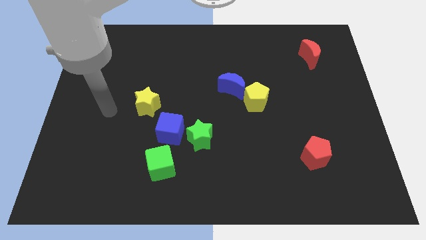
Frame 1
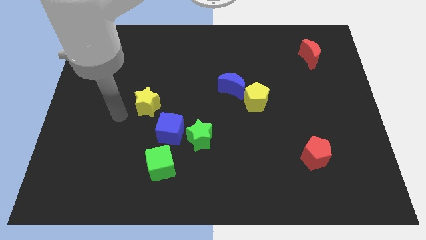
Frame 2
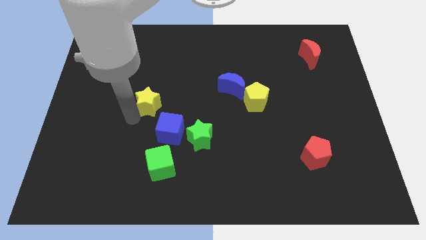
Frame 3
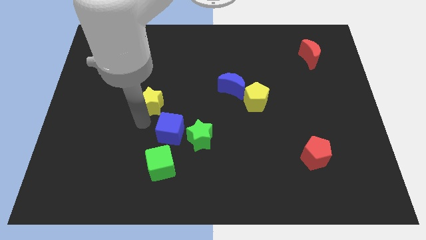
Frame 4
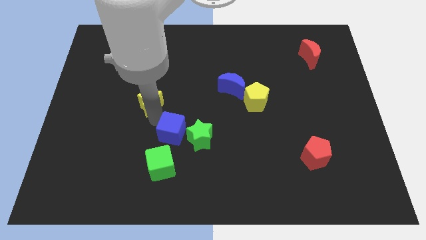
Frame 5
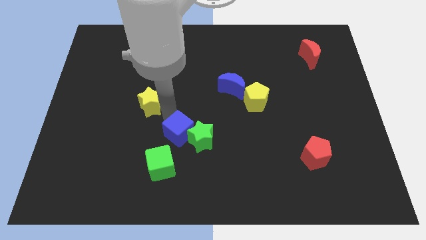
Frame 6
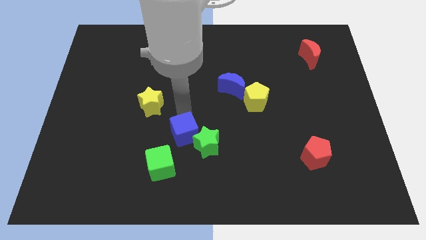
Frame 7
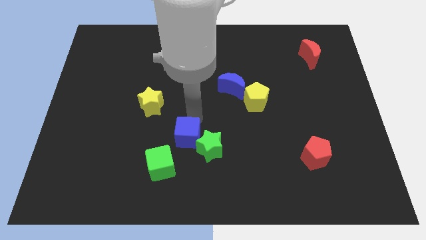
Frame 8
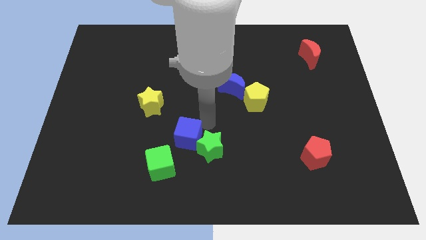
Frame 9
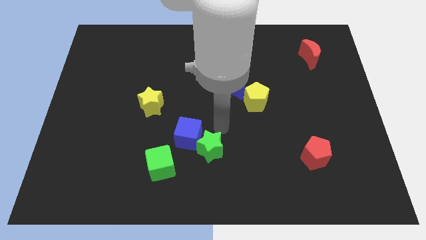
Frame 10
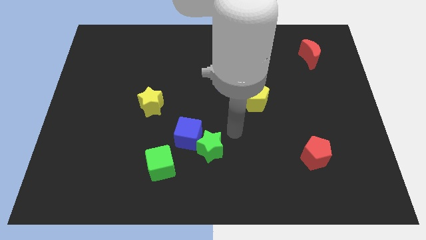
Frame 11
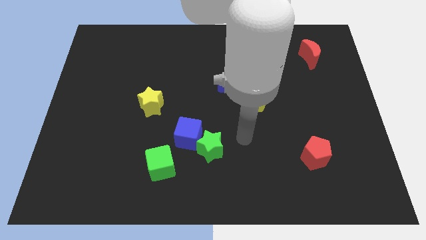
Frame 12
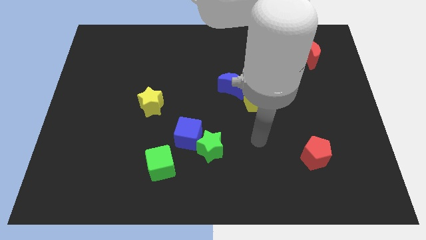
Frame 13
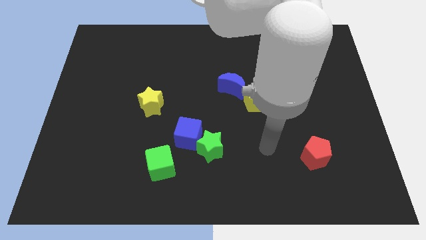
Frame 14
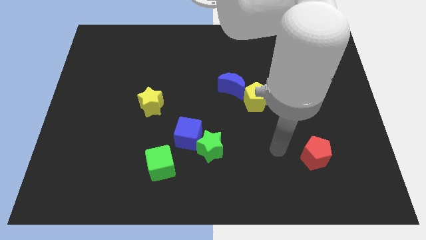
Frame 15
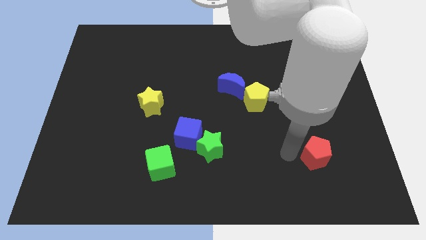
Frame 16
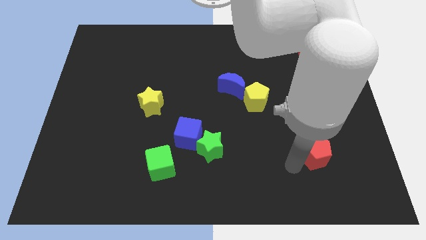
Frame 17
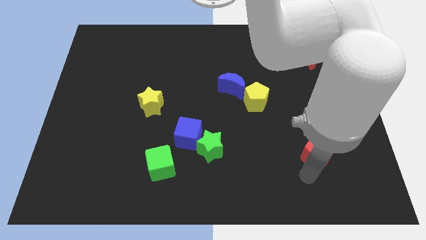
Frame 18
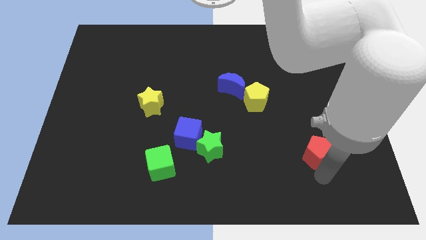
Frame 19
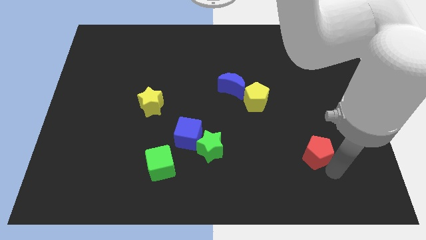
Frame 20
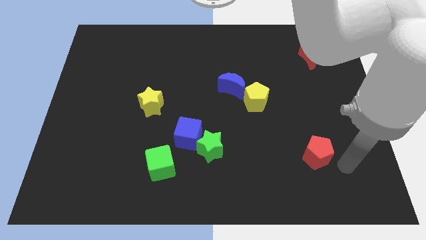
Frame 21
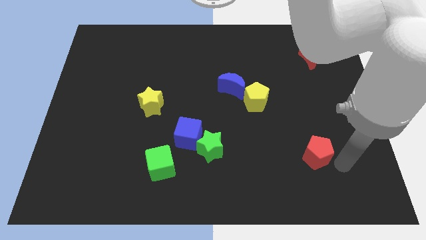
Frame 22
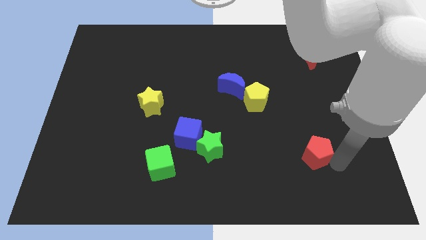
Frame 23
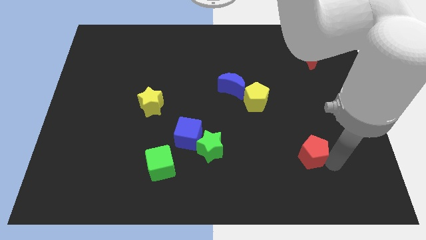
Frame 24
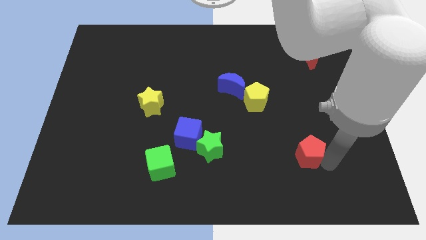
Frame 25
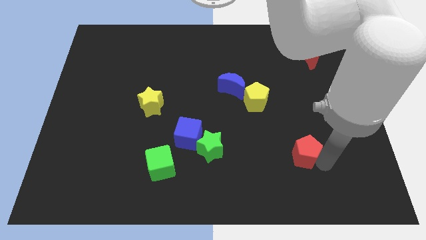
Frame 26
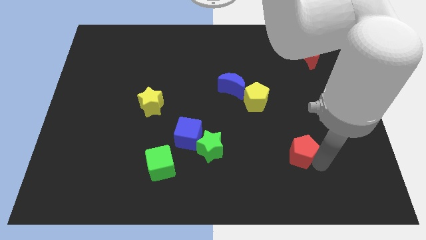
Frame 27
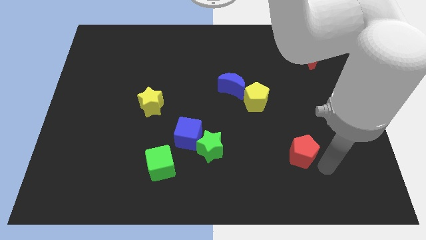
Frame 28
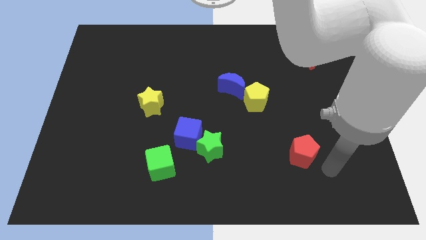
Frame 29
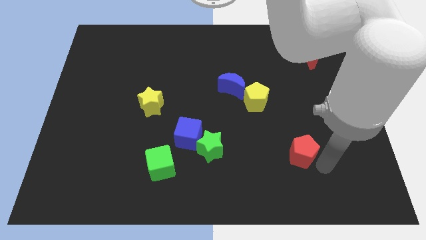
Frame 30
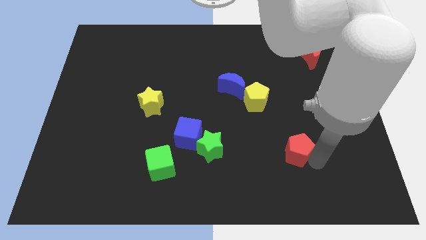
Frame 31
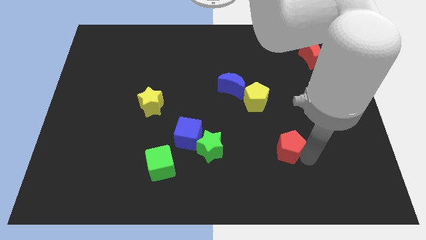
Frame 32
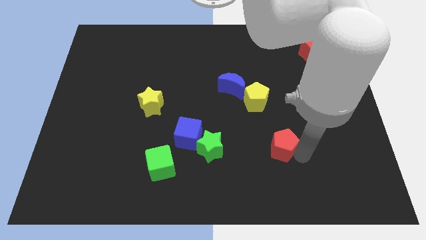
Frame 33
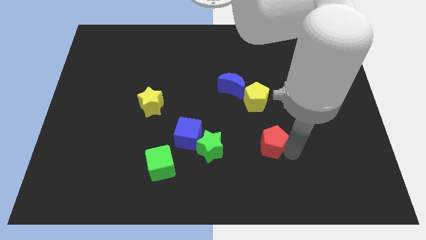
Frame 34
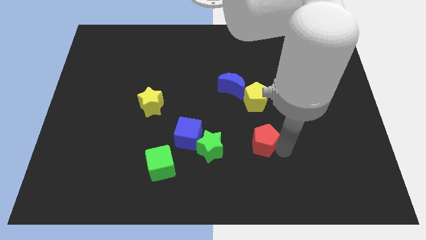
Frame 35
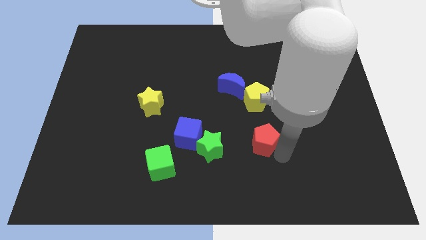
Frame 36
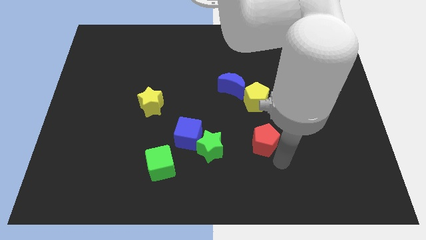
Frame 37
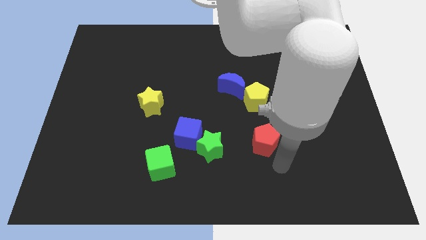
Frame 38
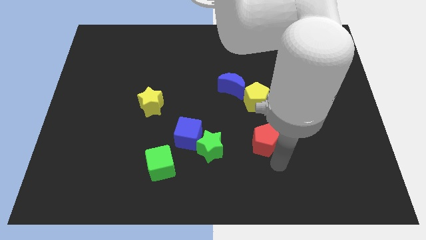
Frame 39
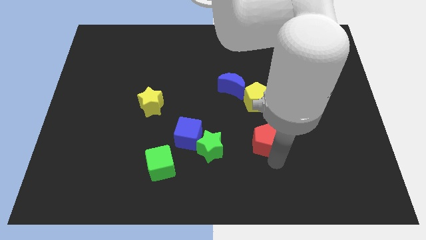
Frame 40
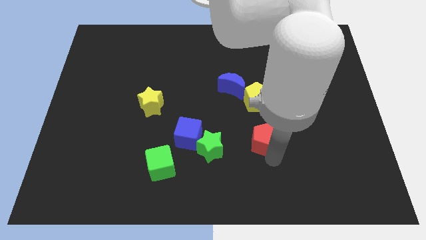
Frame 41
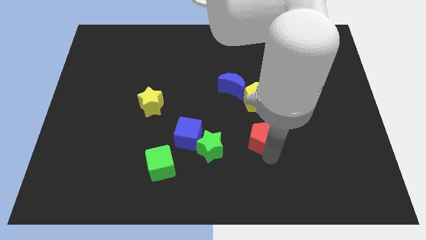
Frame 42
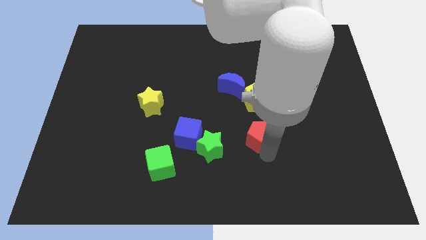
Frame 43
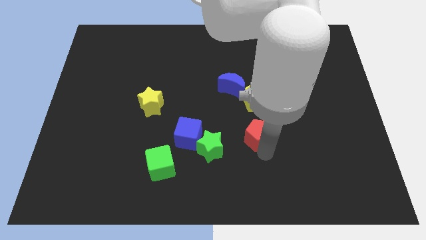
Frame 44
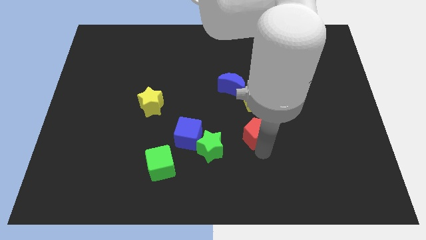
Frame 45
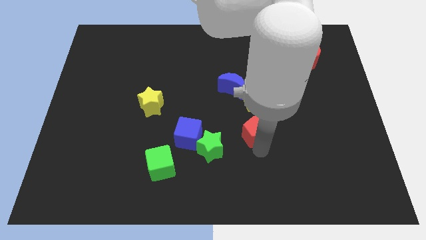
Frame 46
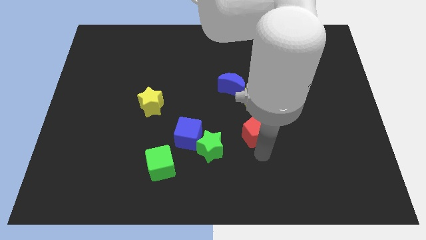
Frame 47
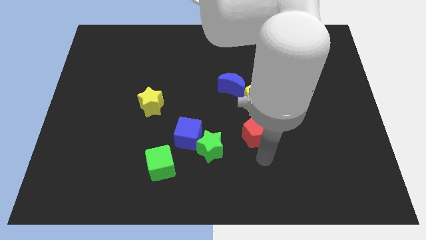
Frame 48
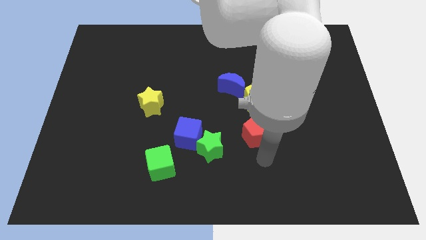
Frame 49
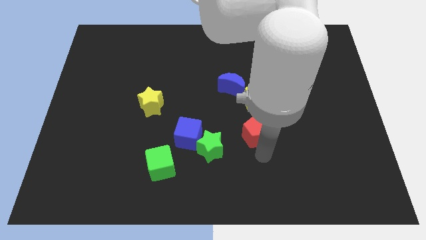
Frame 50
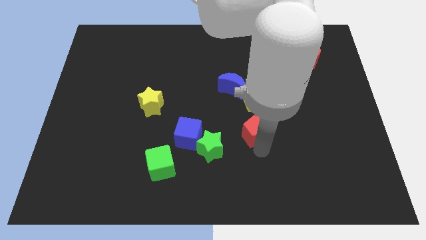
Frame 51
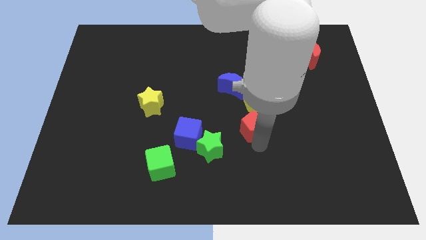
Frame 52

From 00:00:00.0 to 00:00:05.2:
push the red pentagon to the center of the board
